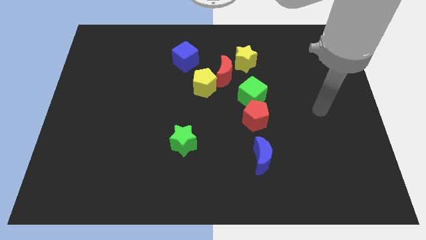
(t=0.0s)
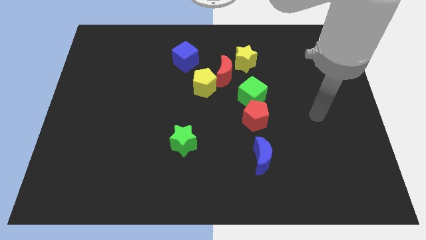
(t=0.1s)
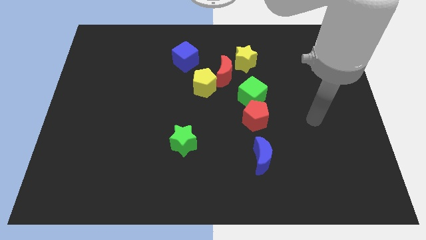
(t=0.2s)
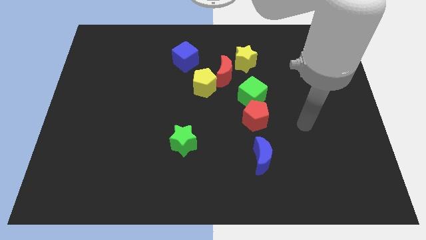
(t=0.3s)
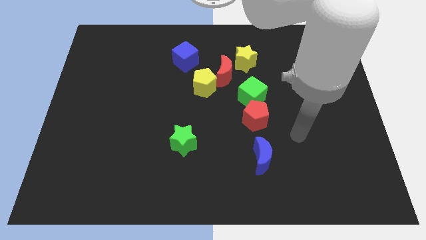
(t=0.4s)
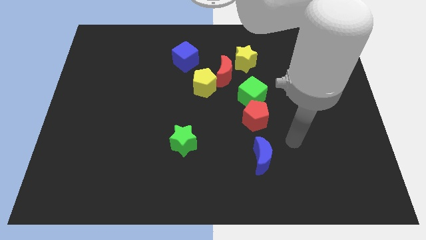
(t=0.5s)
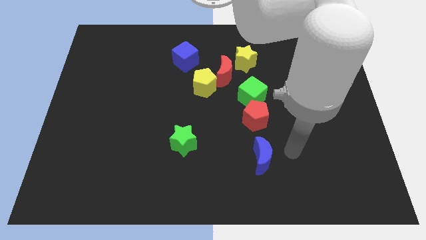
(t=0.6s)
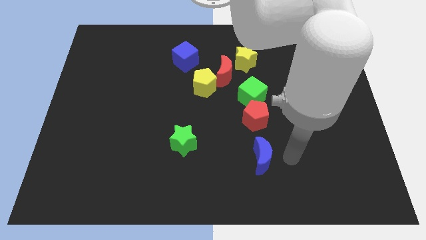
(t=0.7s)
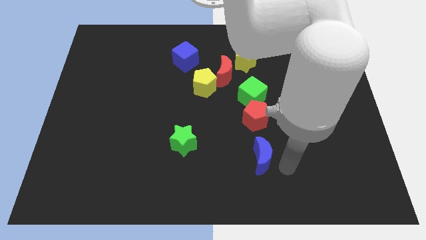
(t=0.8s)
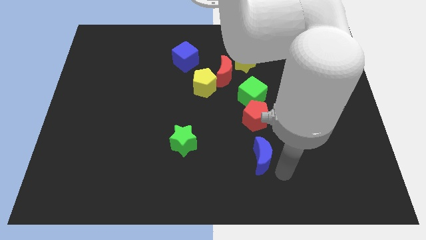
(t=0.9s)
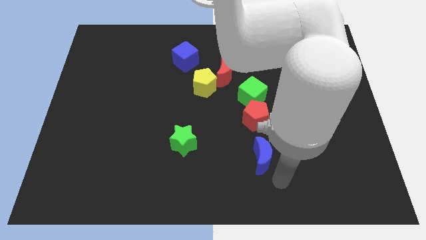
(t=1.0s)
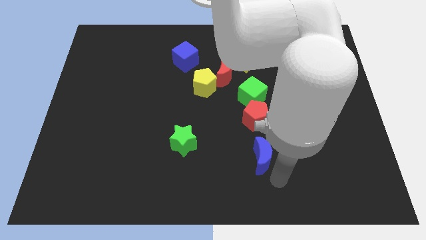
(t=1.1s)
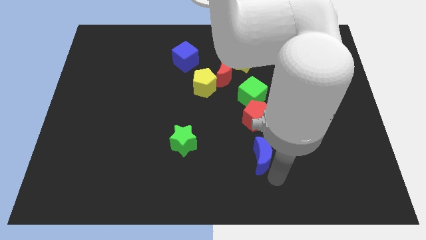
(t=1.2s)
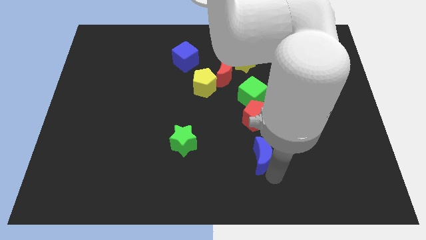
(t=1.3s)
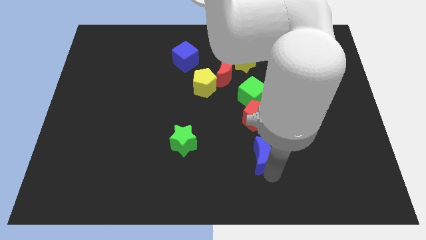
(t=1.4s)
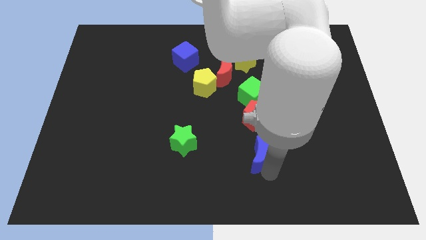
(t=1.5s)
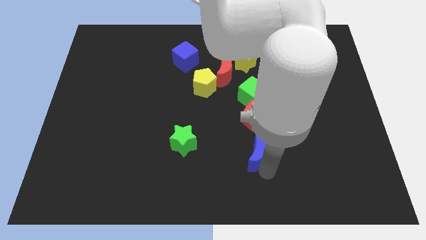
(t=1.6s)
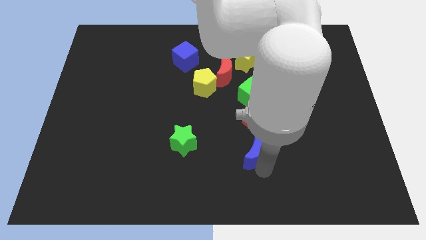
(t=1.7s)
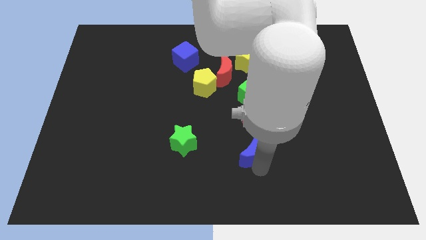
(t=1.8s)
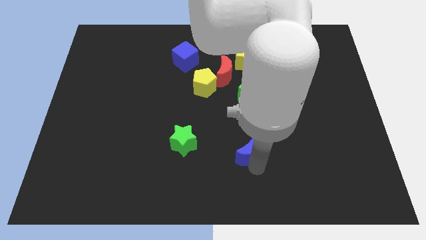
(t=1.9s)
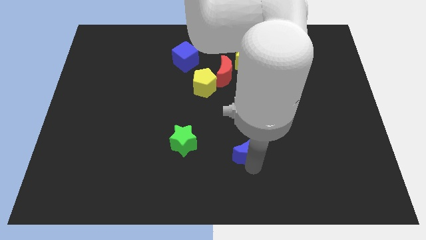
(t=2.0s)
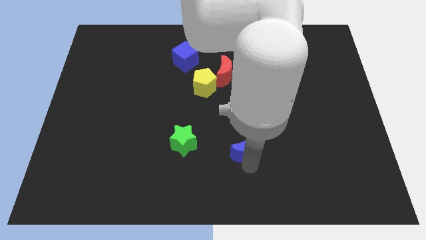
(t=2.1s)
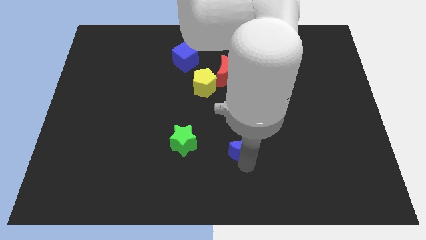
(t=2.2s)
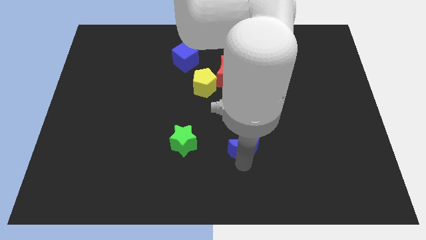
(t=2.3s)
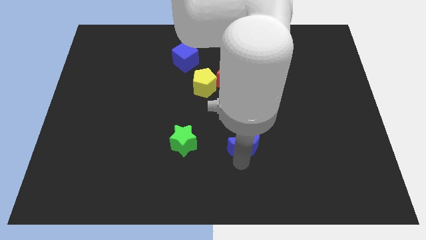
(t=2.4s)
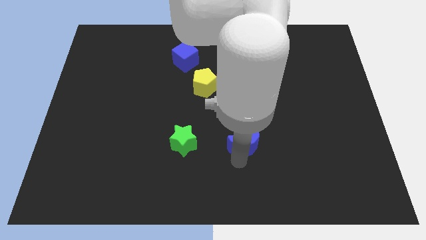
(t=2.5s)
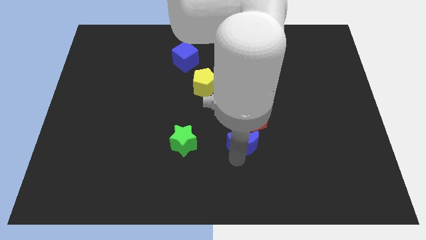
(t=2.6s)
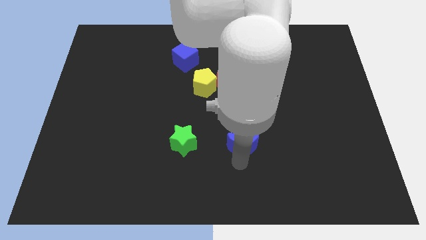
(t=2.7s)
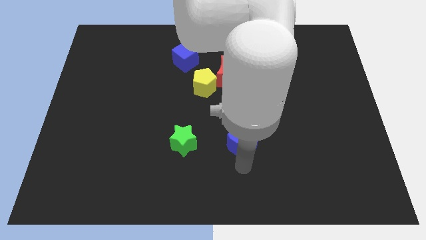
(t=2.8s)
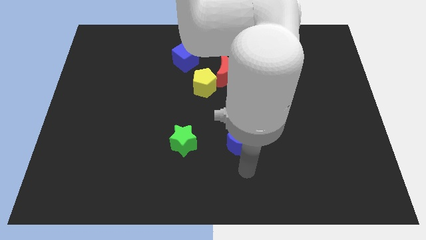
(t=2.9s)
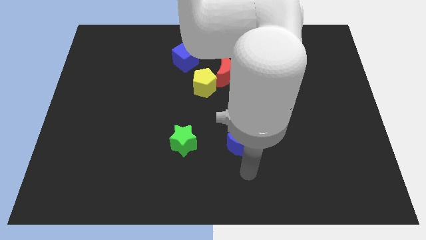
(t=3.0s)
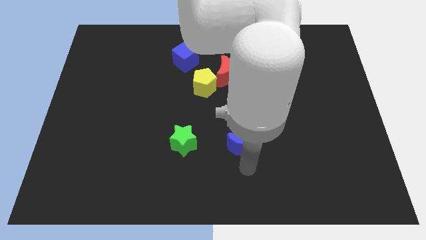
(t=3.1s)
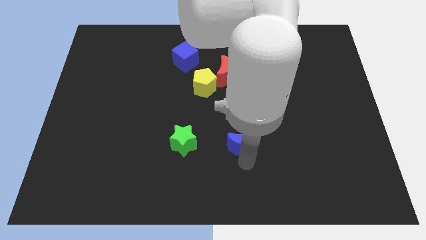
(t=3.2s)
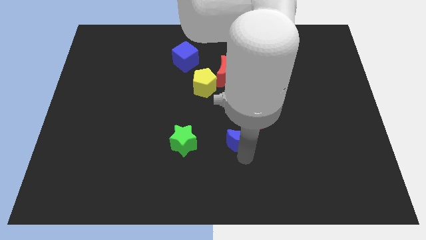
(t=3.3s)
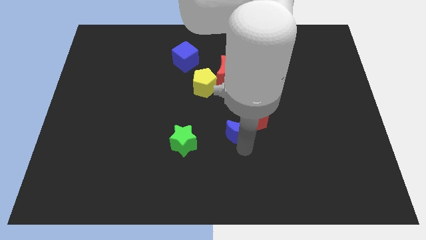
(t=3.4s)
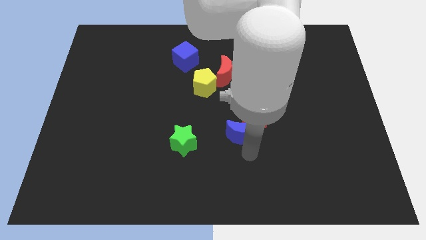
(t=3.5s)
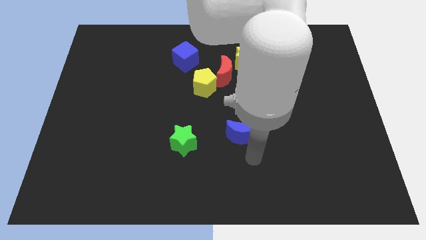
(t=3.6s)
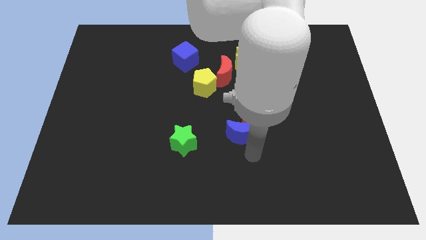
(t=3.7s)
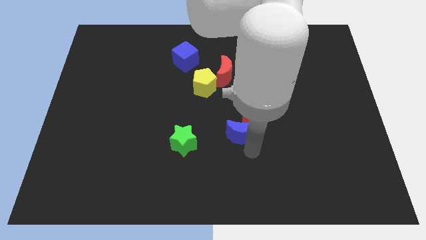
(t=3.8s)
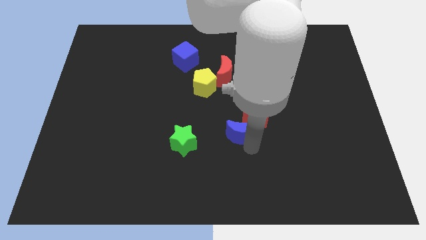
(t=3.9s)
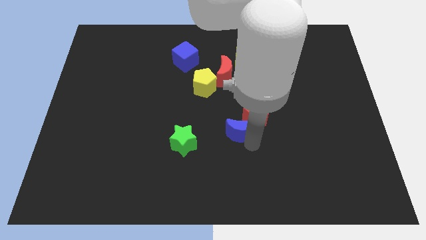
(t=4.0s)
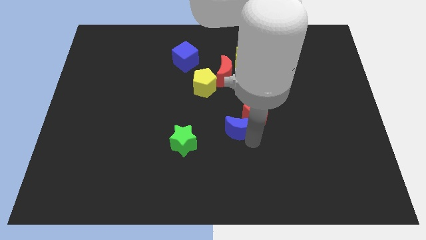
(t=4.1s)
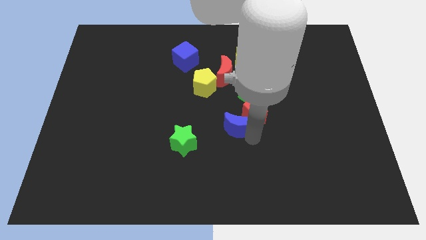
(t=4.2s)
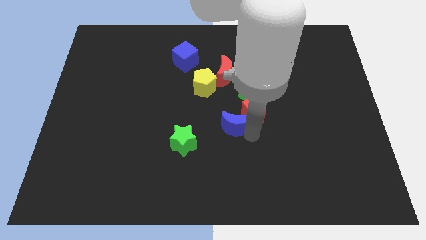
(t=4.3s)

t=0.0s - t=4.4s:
slide the blue moon to the bottom side of the red moon

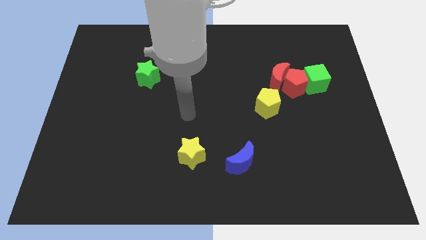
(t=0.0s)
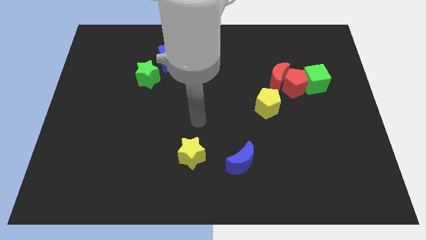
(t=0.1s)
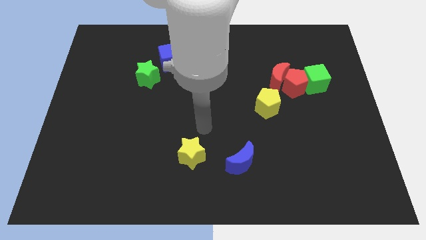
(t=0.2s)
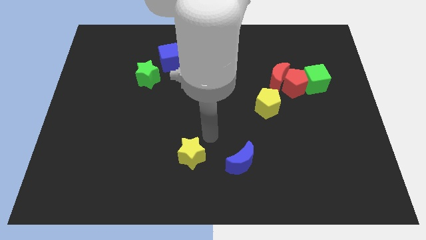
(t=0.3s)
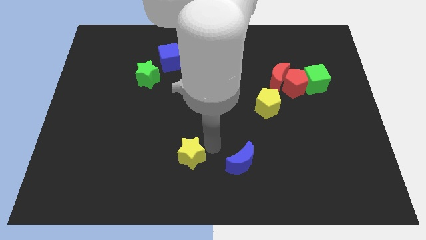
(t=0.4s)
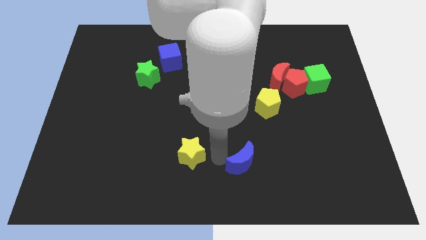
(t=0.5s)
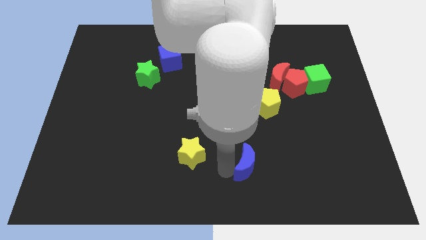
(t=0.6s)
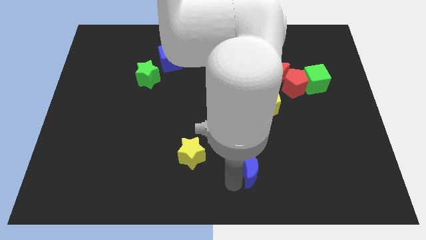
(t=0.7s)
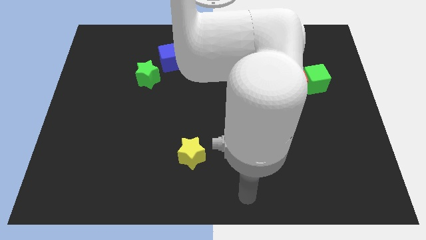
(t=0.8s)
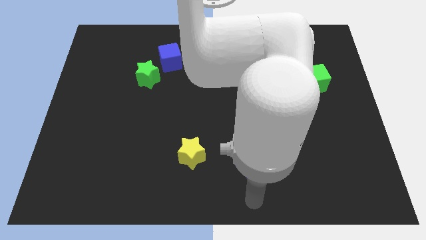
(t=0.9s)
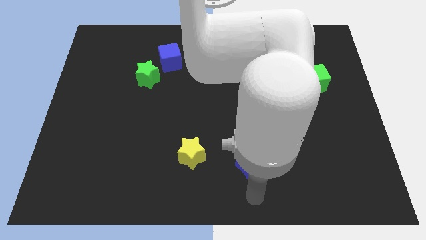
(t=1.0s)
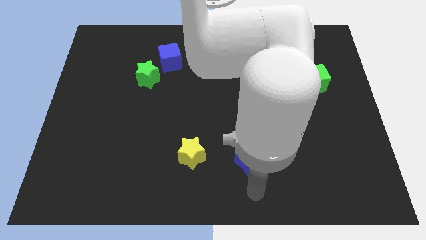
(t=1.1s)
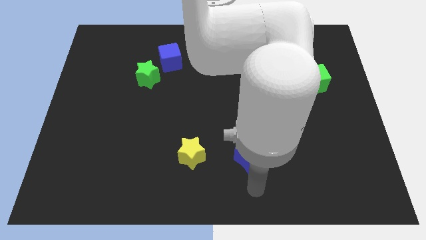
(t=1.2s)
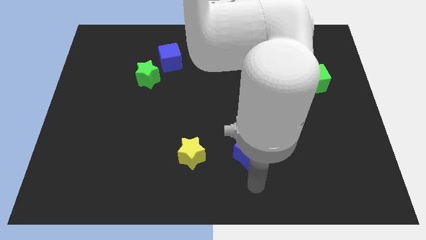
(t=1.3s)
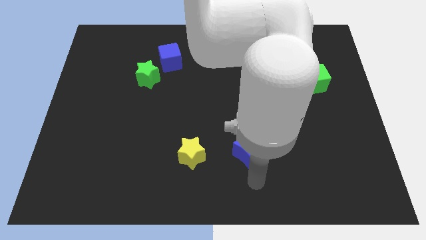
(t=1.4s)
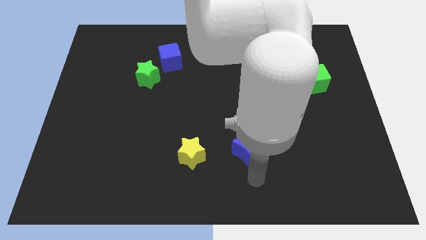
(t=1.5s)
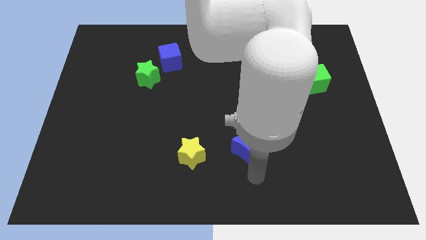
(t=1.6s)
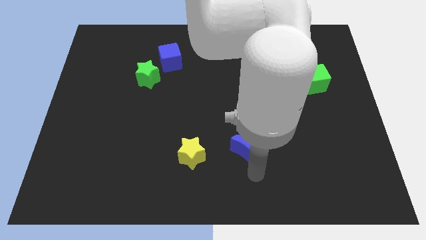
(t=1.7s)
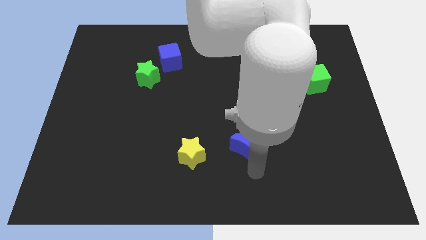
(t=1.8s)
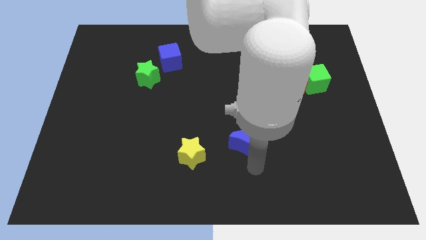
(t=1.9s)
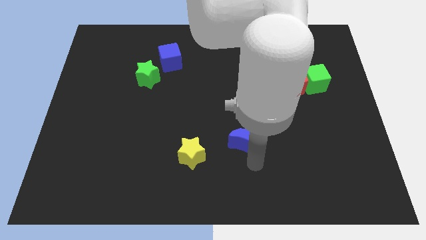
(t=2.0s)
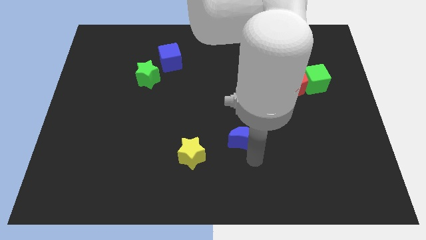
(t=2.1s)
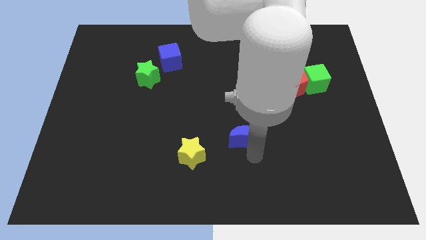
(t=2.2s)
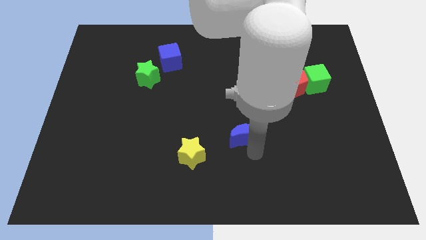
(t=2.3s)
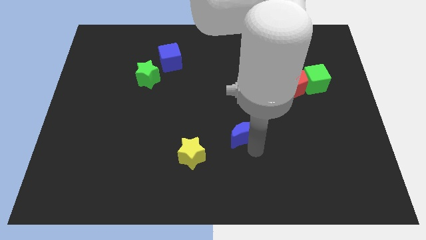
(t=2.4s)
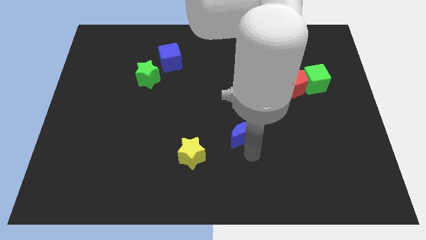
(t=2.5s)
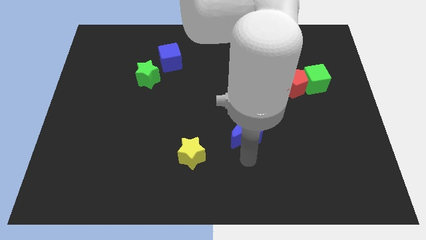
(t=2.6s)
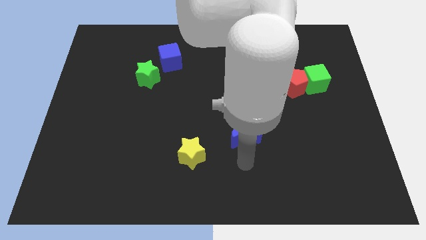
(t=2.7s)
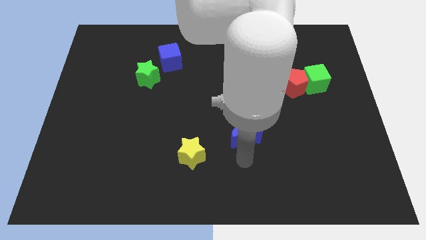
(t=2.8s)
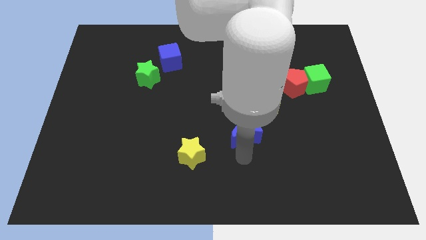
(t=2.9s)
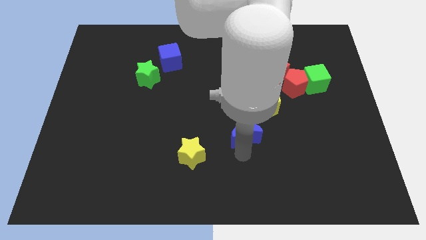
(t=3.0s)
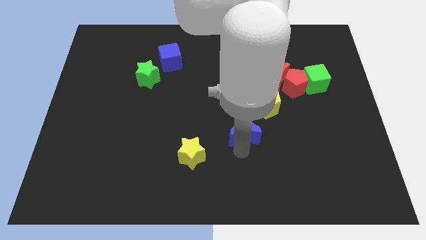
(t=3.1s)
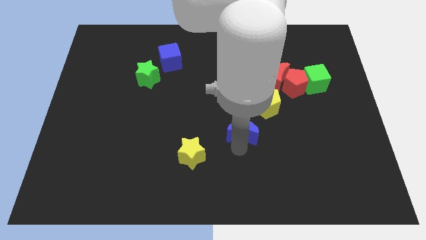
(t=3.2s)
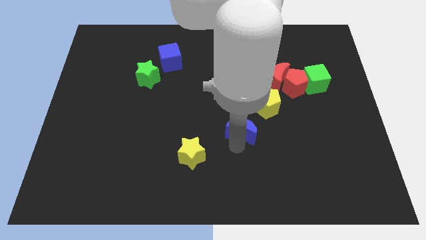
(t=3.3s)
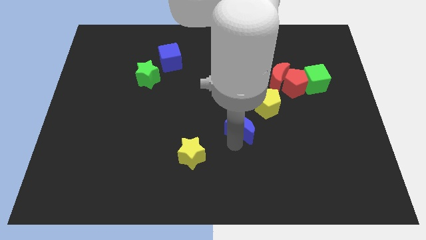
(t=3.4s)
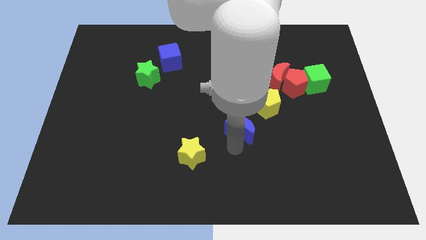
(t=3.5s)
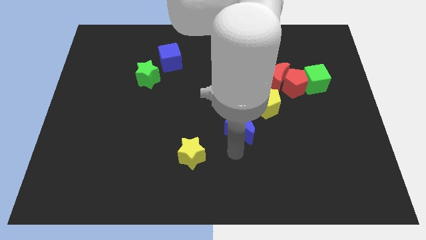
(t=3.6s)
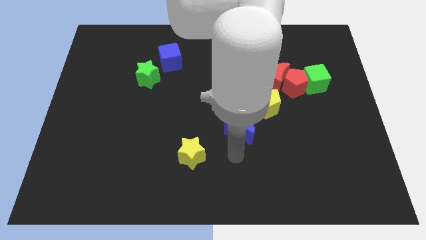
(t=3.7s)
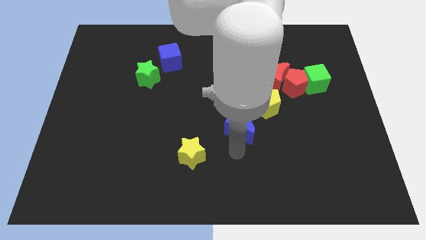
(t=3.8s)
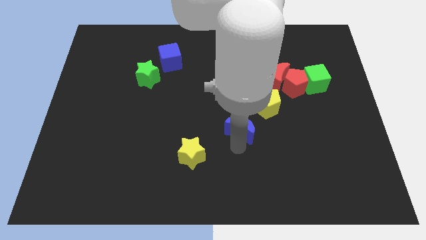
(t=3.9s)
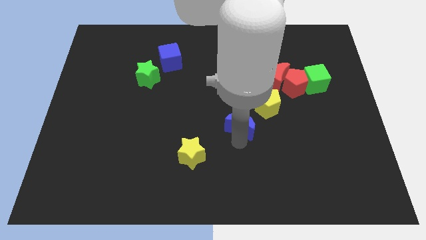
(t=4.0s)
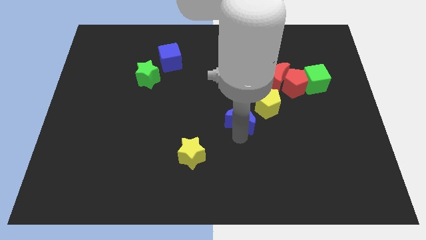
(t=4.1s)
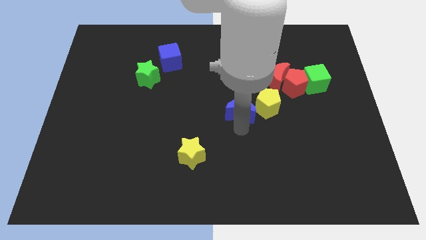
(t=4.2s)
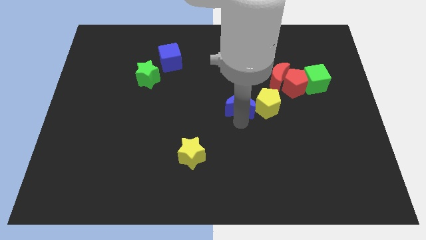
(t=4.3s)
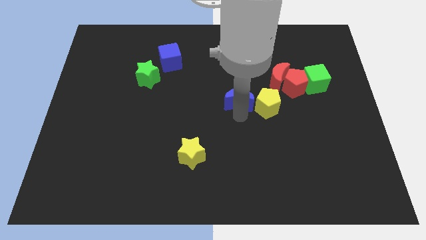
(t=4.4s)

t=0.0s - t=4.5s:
slide the blue moon diagonally up and to the left of the yellow pentagon
